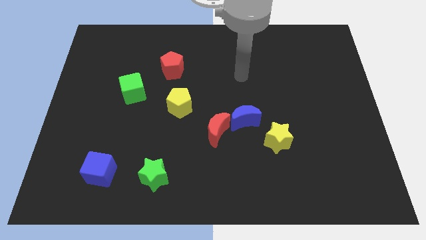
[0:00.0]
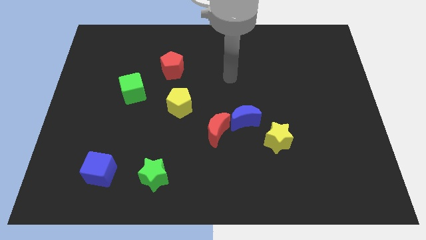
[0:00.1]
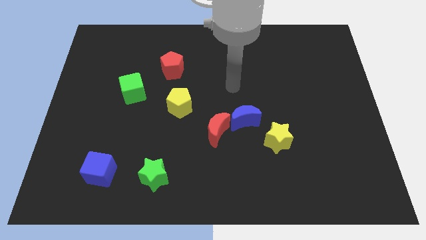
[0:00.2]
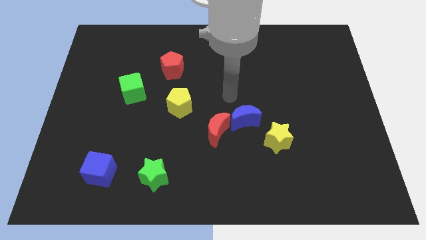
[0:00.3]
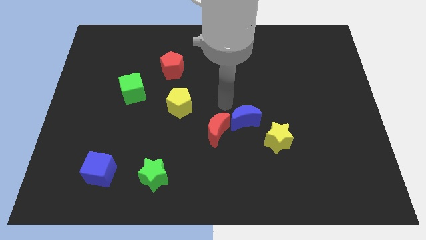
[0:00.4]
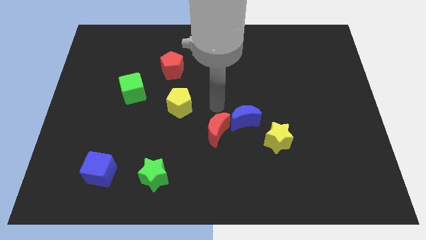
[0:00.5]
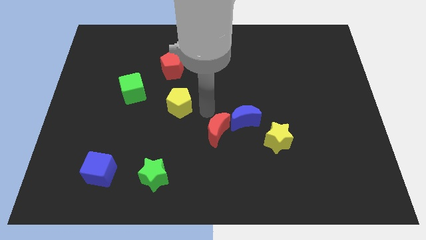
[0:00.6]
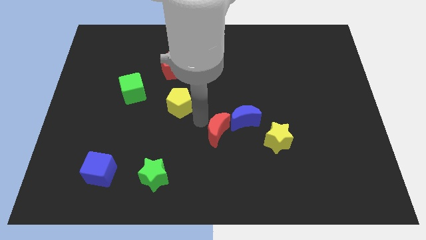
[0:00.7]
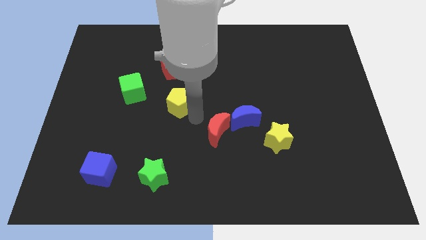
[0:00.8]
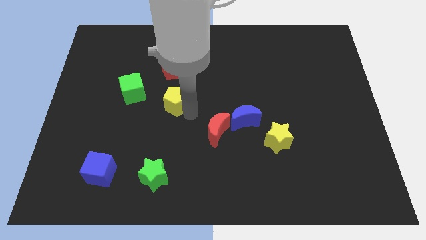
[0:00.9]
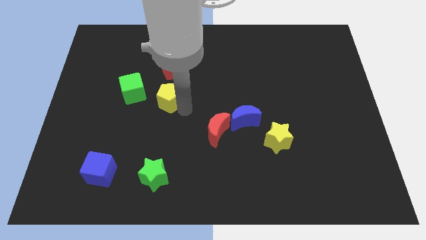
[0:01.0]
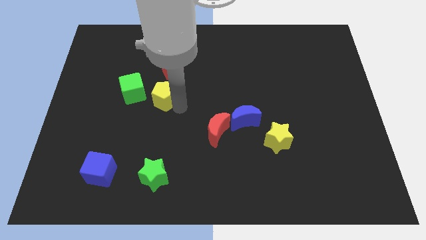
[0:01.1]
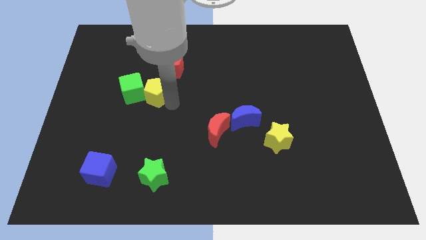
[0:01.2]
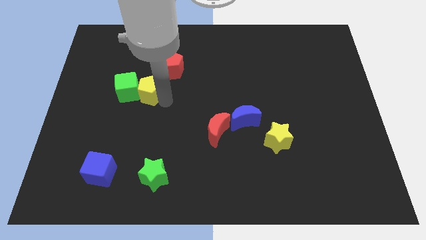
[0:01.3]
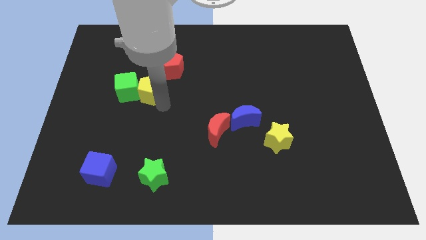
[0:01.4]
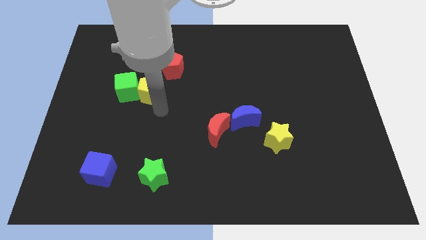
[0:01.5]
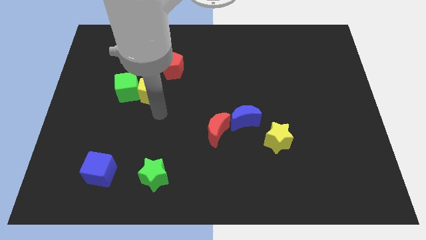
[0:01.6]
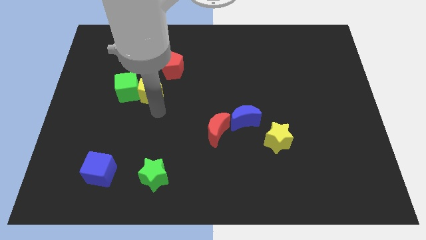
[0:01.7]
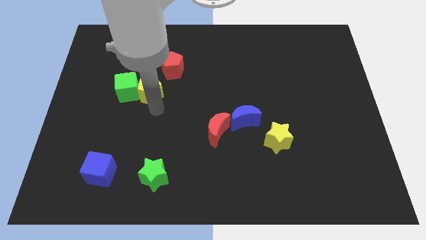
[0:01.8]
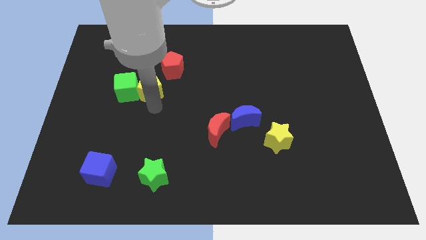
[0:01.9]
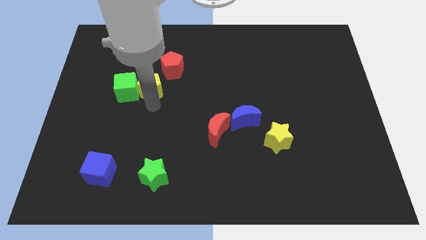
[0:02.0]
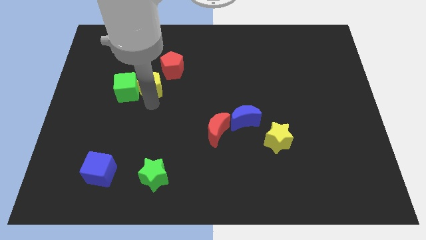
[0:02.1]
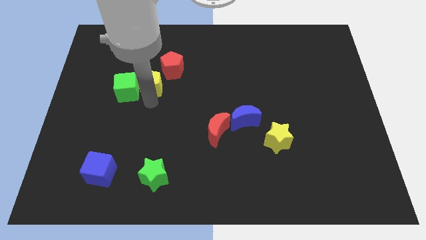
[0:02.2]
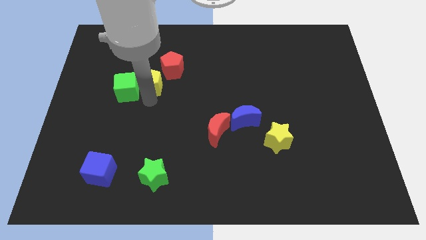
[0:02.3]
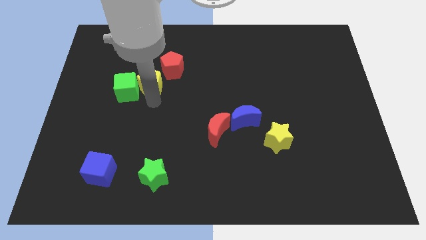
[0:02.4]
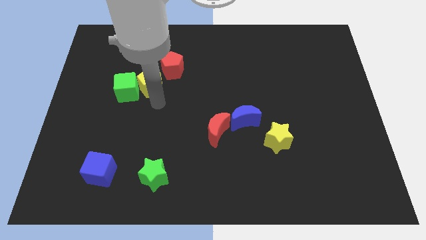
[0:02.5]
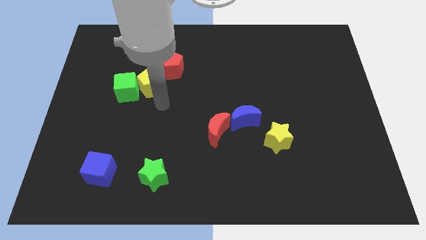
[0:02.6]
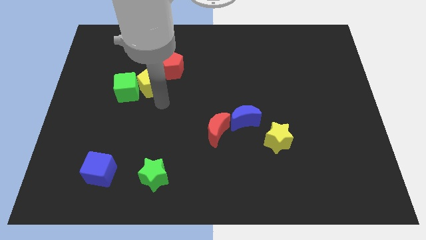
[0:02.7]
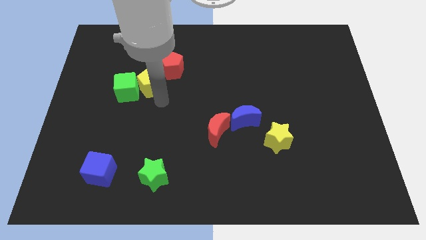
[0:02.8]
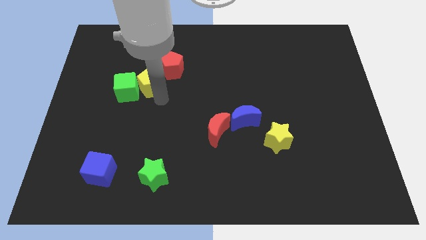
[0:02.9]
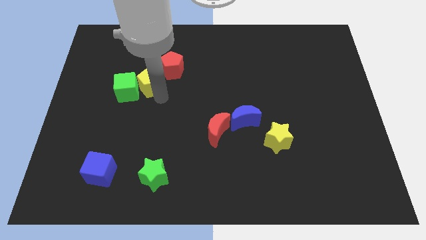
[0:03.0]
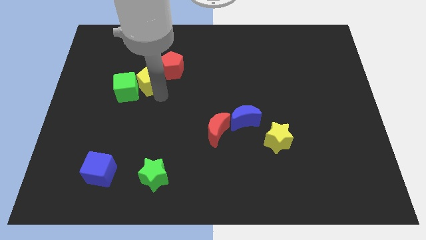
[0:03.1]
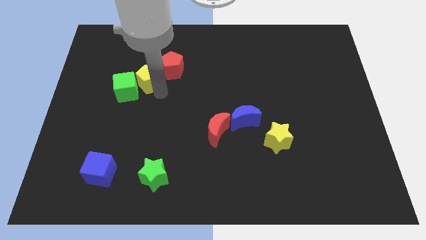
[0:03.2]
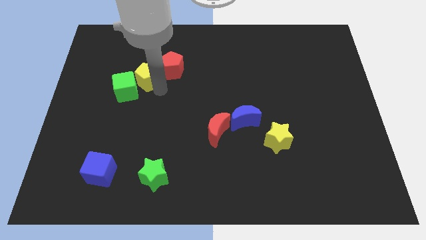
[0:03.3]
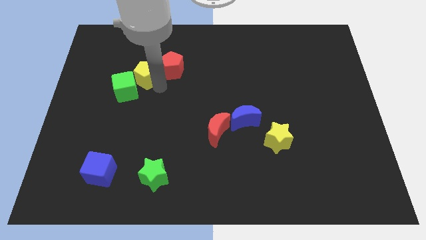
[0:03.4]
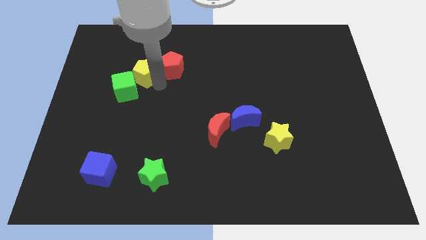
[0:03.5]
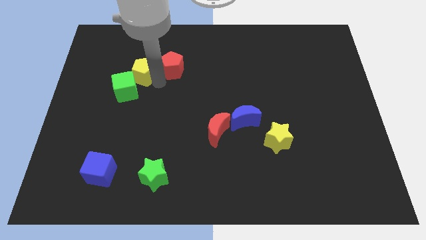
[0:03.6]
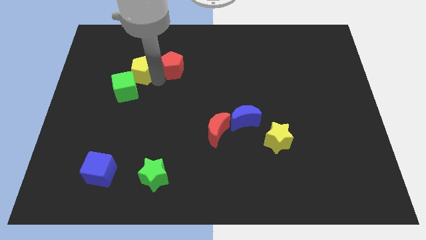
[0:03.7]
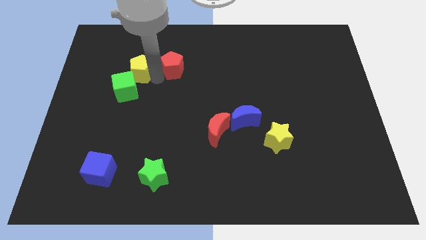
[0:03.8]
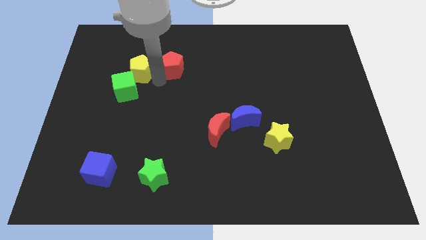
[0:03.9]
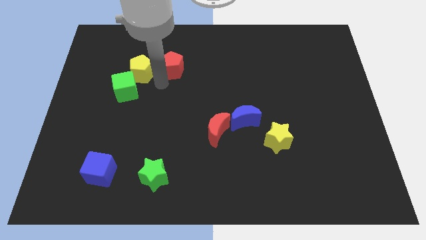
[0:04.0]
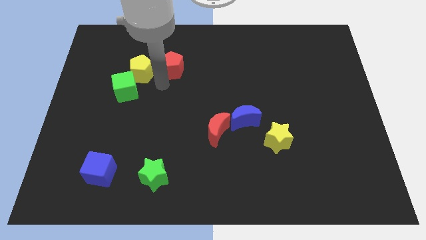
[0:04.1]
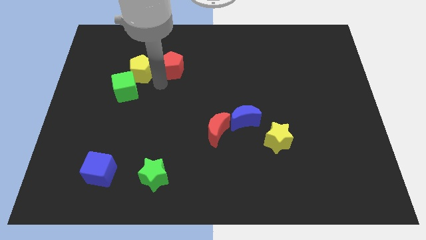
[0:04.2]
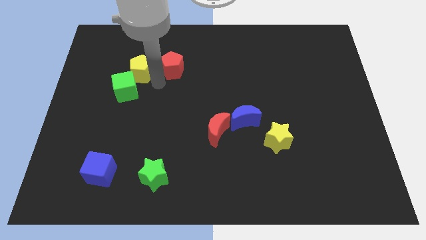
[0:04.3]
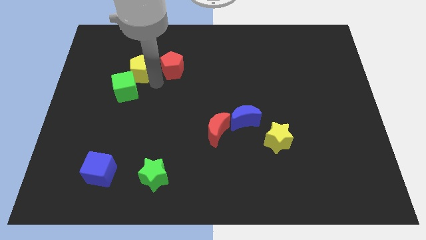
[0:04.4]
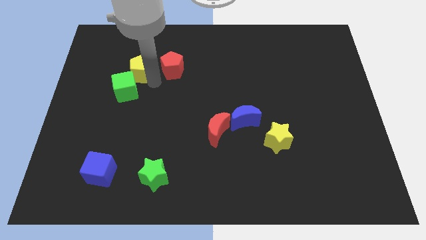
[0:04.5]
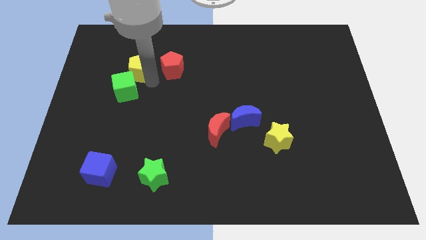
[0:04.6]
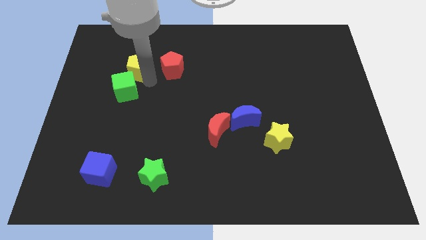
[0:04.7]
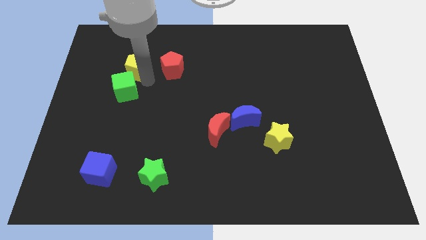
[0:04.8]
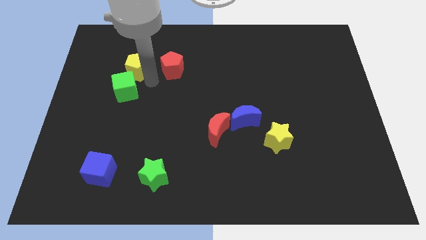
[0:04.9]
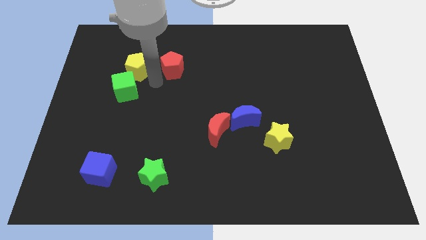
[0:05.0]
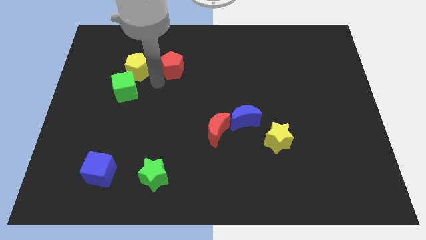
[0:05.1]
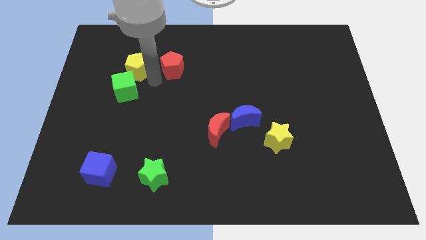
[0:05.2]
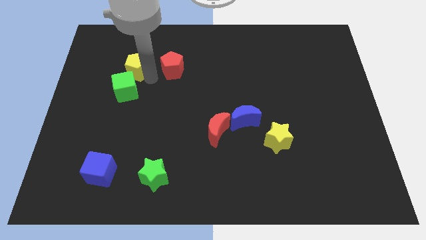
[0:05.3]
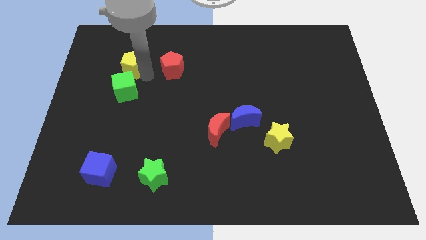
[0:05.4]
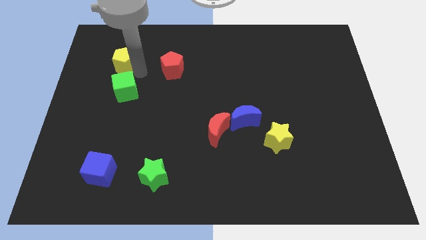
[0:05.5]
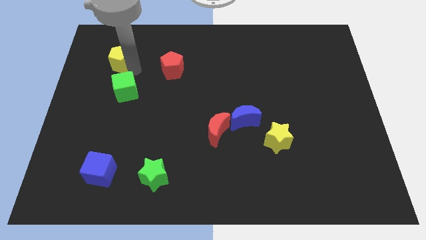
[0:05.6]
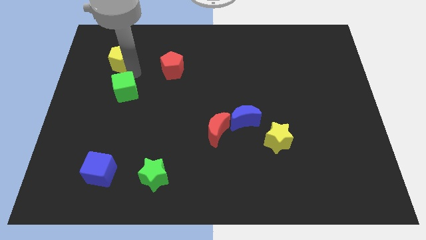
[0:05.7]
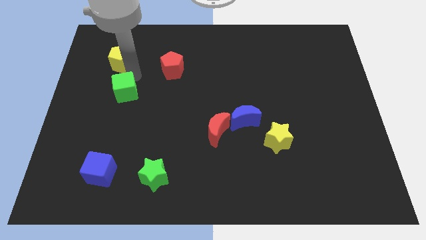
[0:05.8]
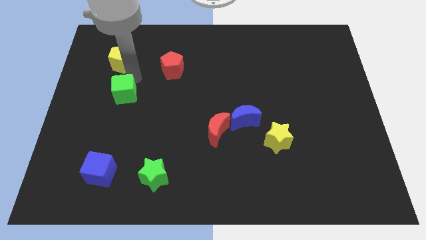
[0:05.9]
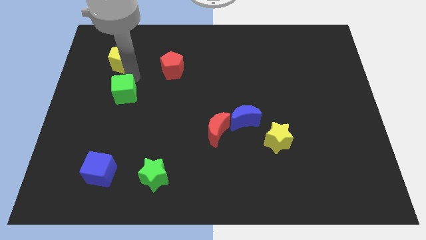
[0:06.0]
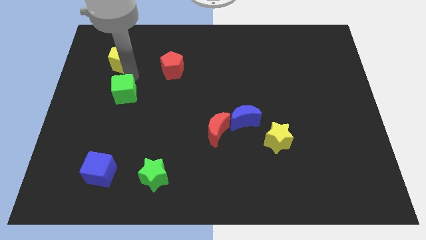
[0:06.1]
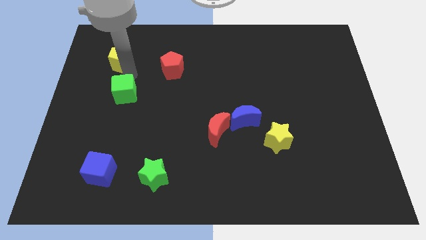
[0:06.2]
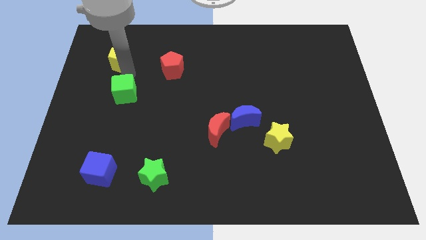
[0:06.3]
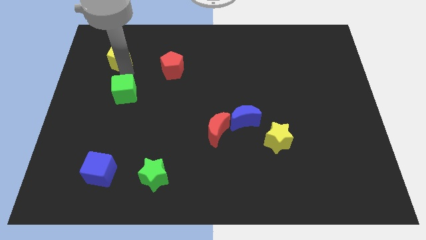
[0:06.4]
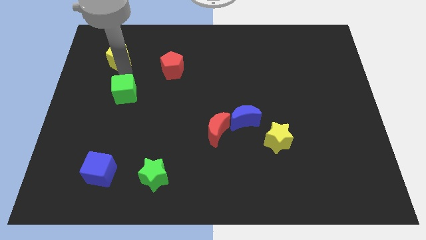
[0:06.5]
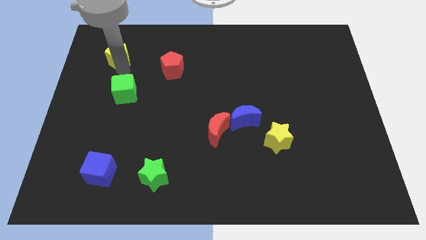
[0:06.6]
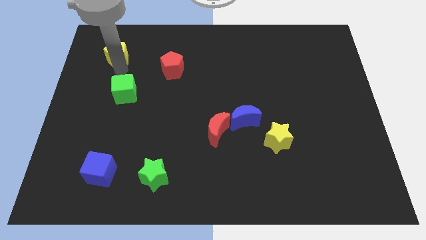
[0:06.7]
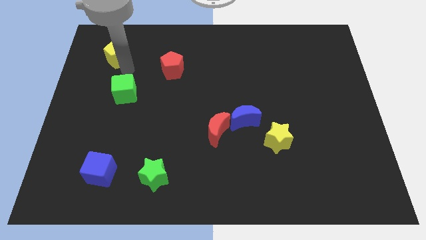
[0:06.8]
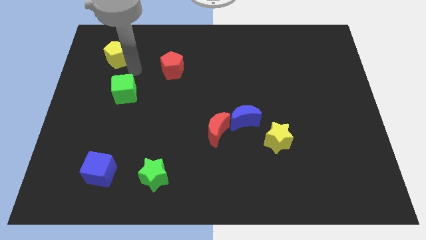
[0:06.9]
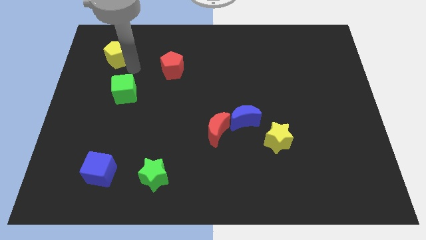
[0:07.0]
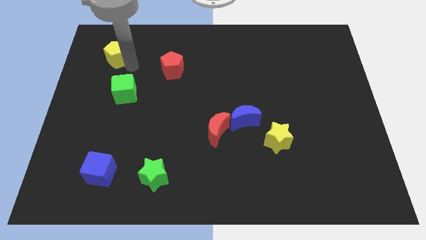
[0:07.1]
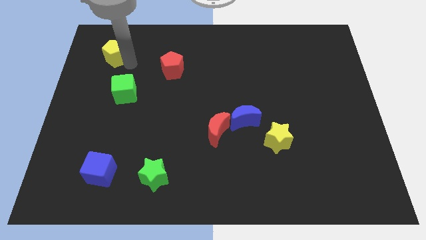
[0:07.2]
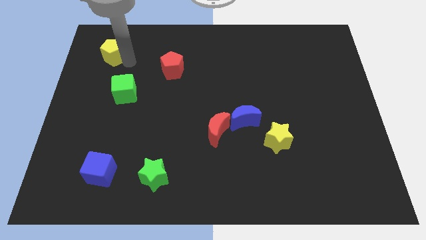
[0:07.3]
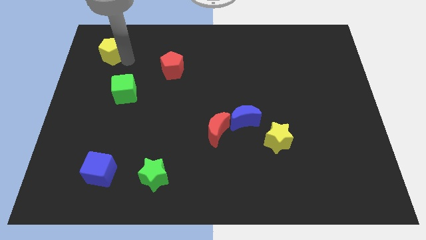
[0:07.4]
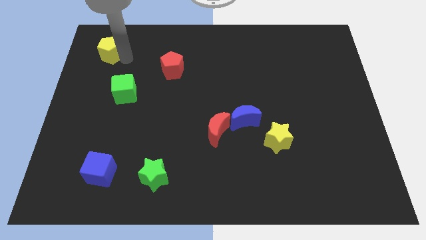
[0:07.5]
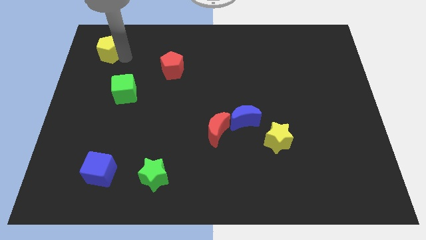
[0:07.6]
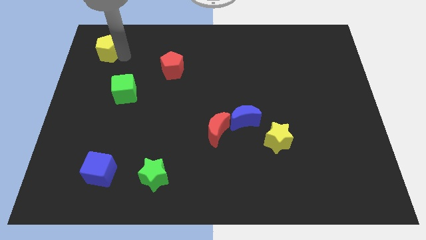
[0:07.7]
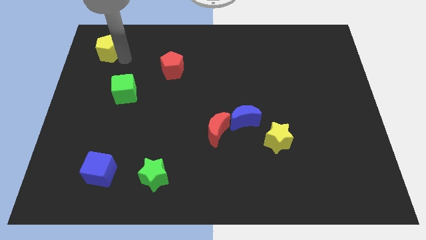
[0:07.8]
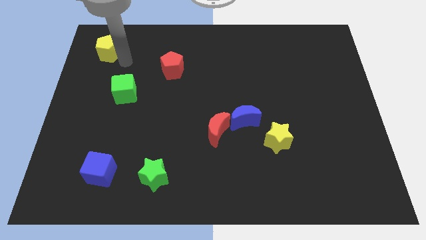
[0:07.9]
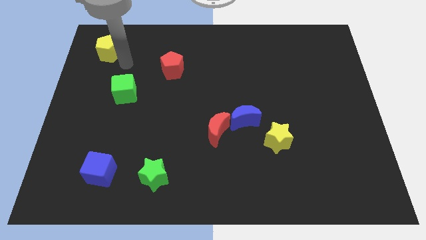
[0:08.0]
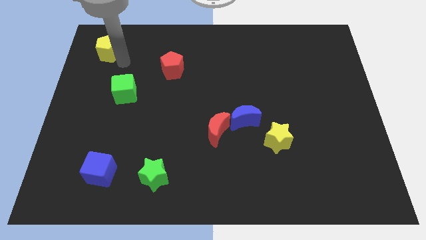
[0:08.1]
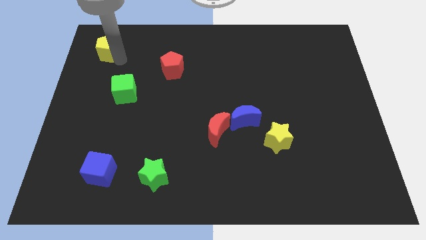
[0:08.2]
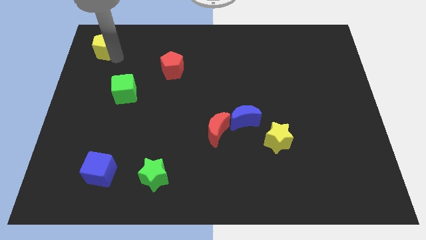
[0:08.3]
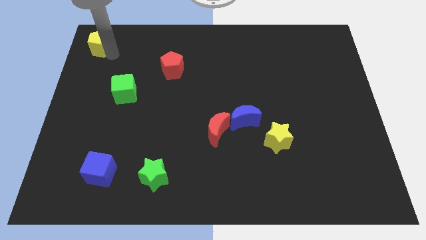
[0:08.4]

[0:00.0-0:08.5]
slide the yellow pentagon to the upper left corner
